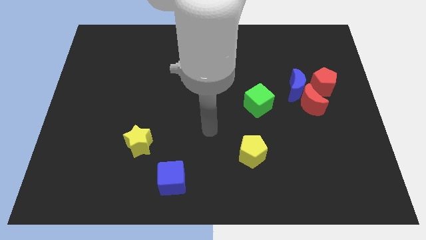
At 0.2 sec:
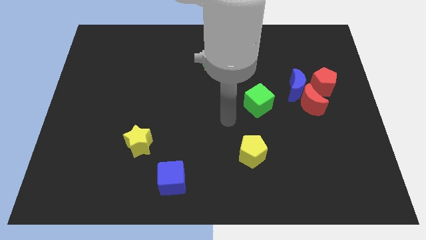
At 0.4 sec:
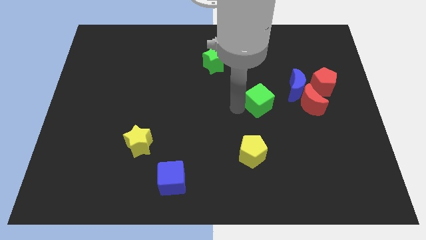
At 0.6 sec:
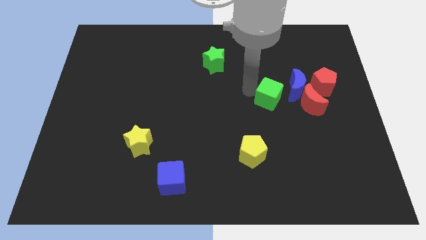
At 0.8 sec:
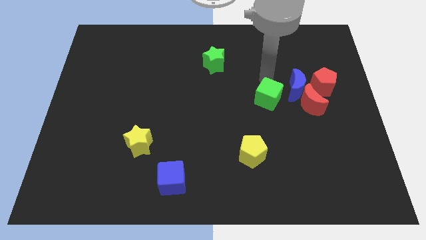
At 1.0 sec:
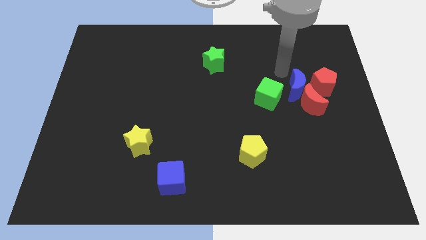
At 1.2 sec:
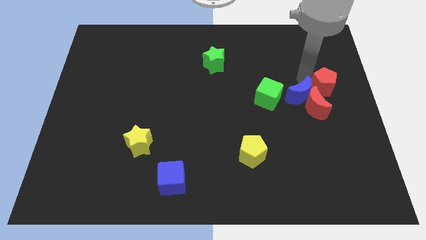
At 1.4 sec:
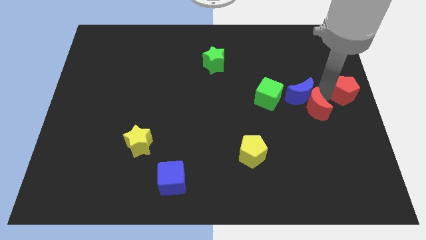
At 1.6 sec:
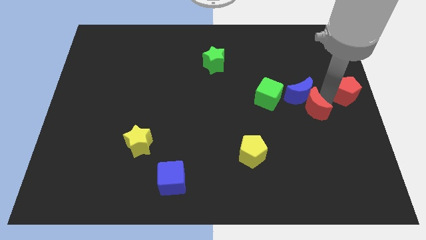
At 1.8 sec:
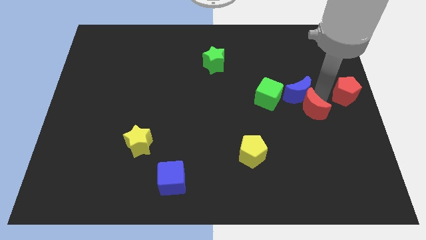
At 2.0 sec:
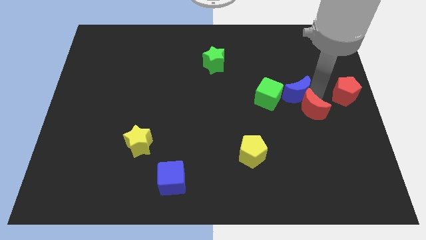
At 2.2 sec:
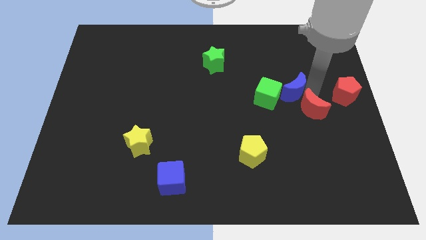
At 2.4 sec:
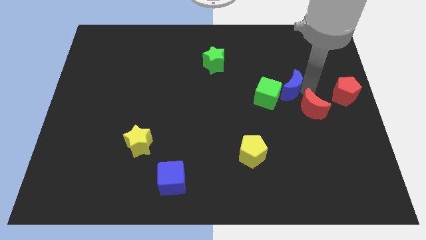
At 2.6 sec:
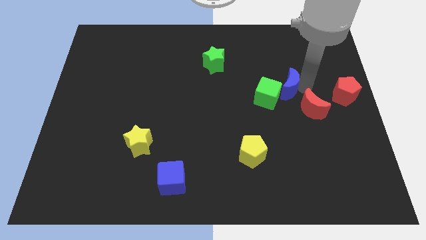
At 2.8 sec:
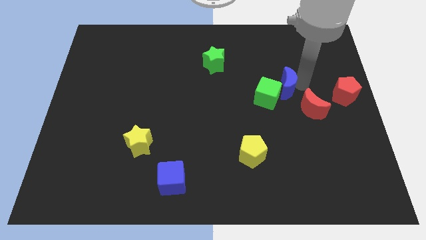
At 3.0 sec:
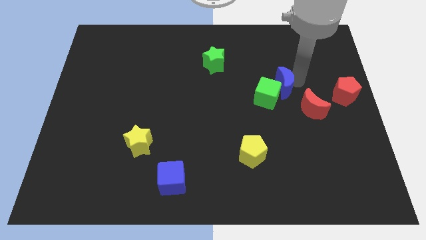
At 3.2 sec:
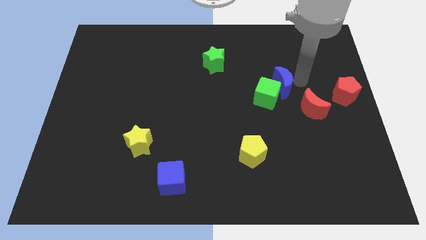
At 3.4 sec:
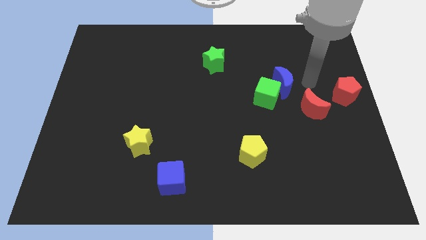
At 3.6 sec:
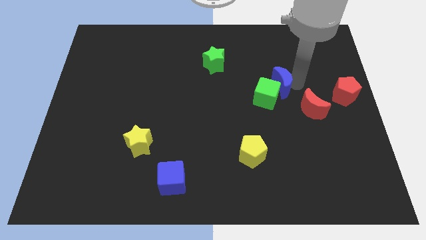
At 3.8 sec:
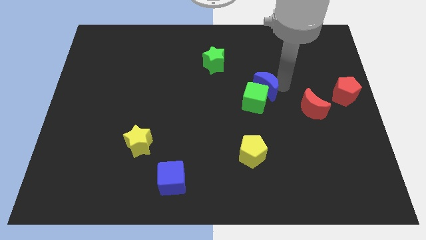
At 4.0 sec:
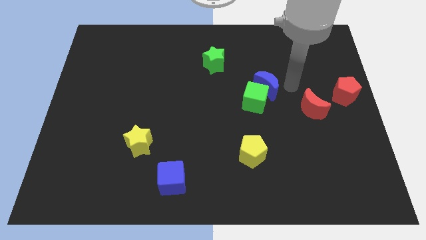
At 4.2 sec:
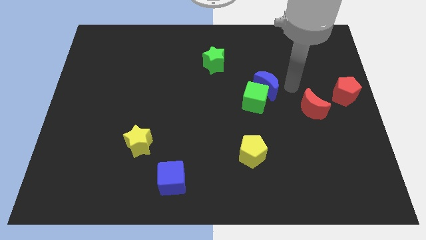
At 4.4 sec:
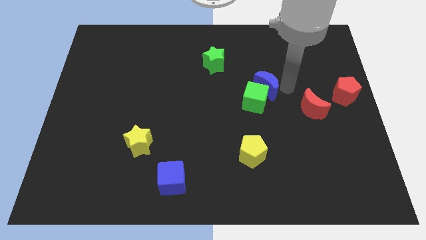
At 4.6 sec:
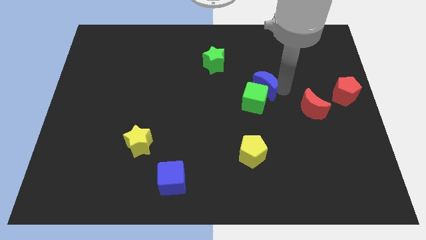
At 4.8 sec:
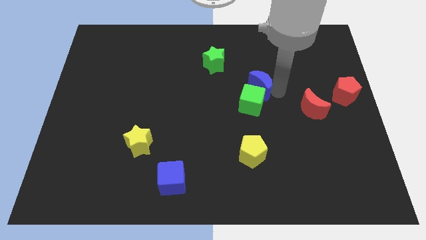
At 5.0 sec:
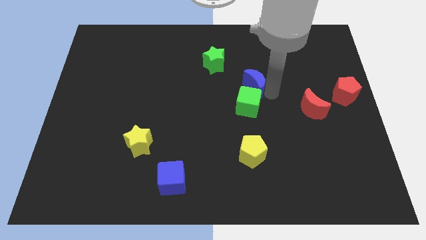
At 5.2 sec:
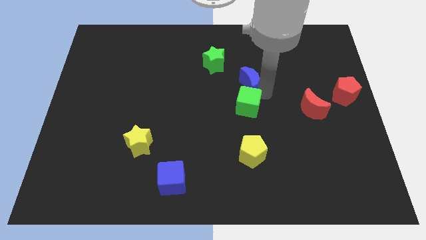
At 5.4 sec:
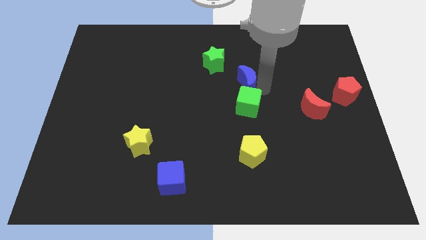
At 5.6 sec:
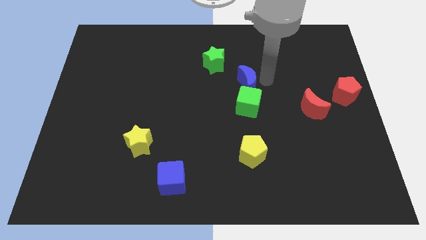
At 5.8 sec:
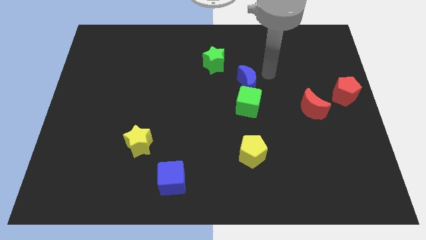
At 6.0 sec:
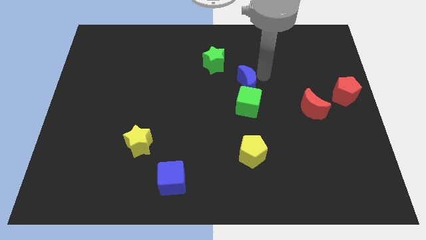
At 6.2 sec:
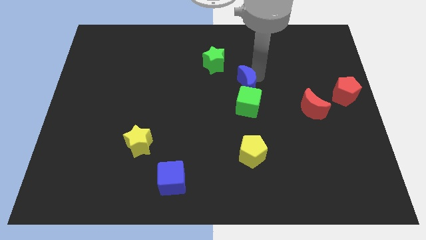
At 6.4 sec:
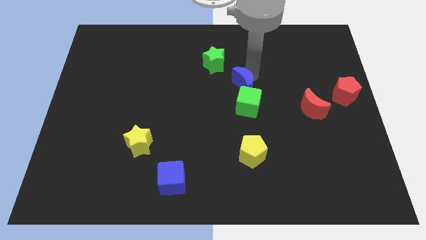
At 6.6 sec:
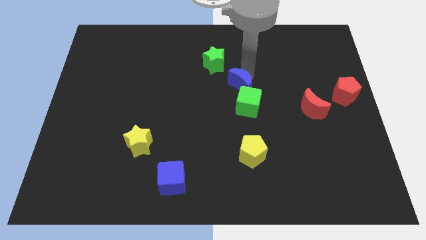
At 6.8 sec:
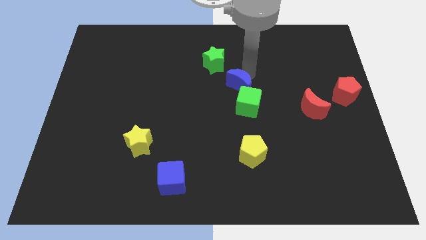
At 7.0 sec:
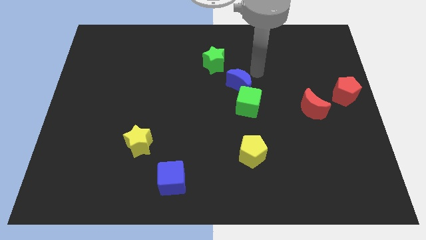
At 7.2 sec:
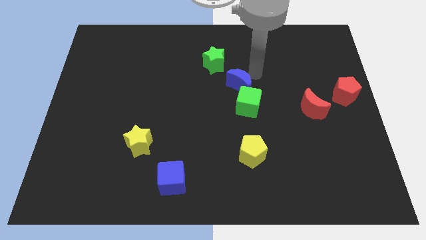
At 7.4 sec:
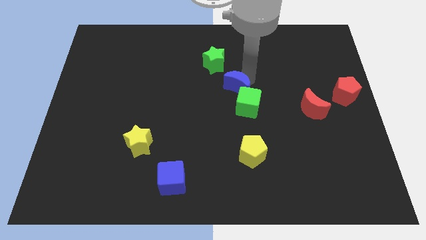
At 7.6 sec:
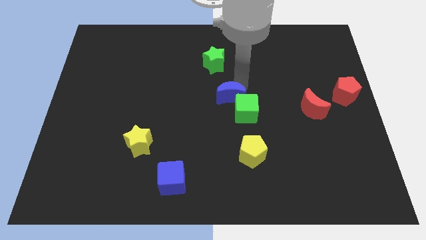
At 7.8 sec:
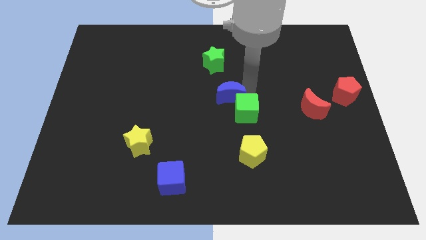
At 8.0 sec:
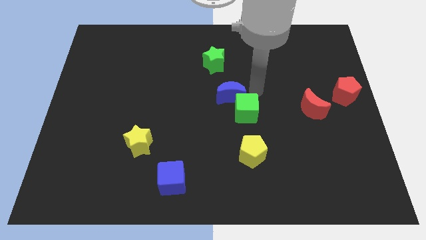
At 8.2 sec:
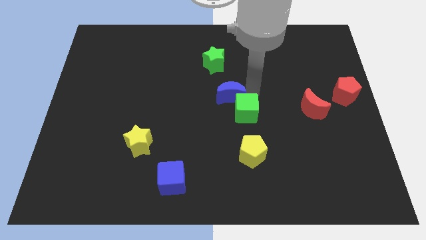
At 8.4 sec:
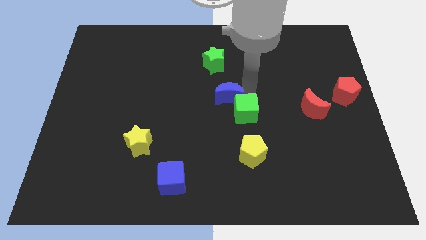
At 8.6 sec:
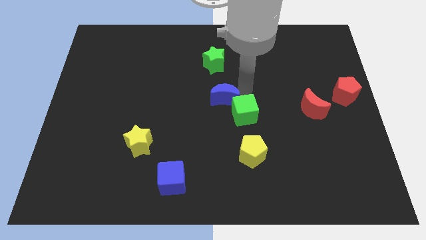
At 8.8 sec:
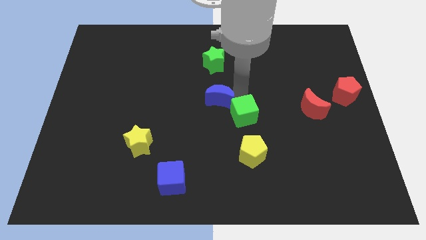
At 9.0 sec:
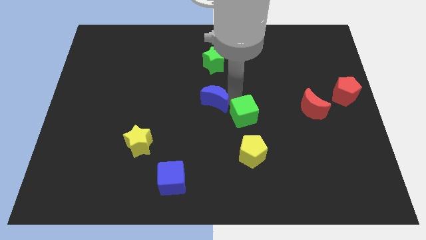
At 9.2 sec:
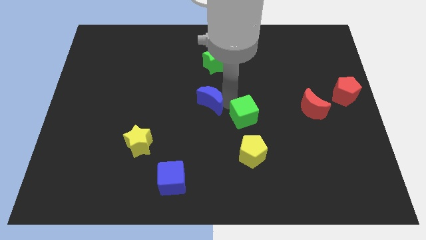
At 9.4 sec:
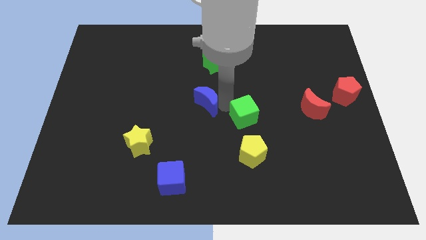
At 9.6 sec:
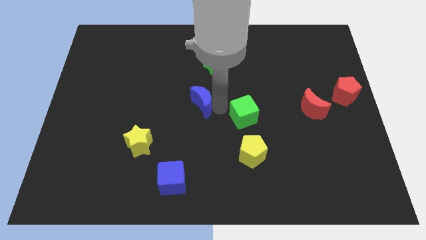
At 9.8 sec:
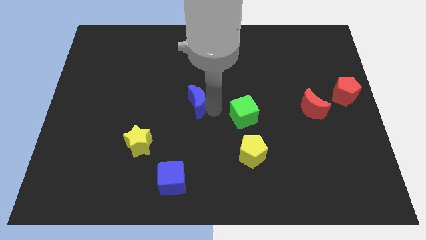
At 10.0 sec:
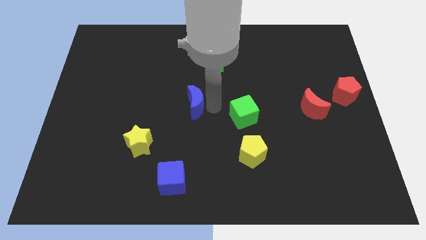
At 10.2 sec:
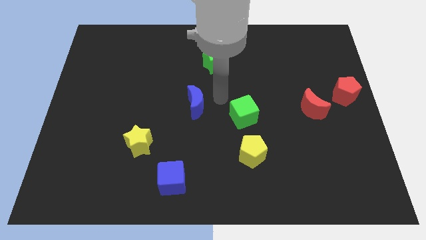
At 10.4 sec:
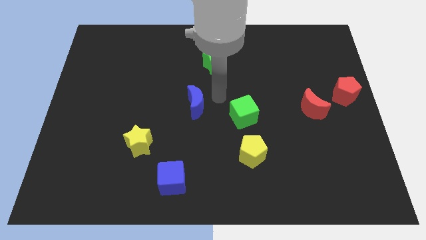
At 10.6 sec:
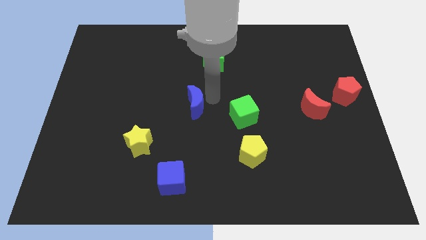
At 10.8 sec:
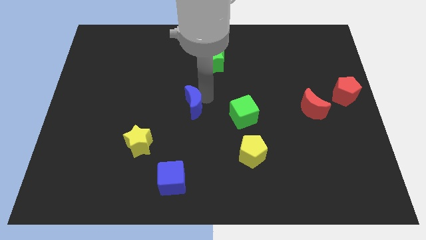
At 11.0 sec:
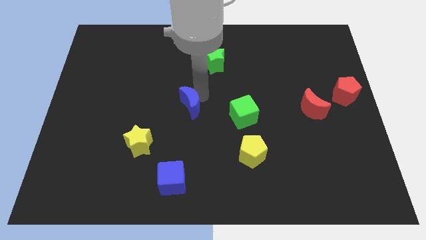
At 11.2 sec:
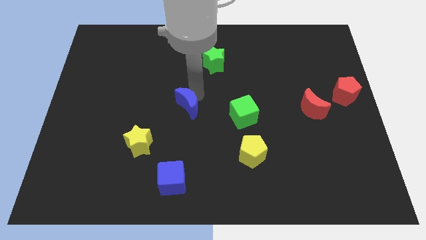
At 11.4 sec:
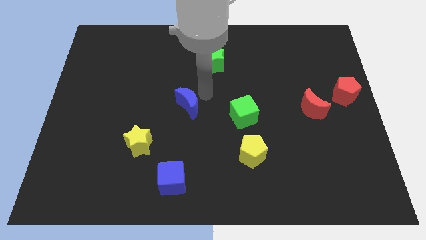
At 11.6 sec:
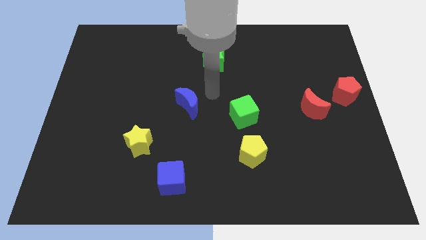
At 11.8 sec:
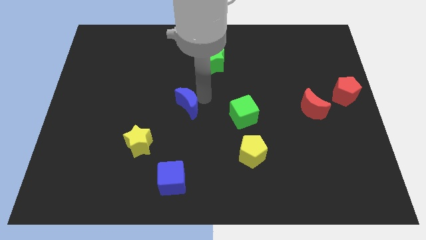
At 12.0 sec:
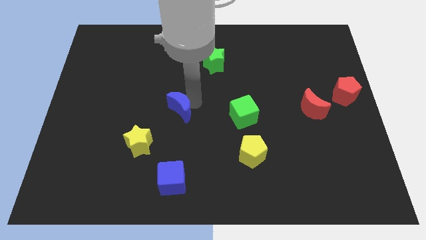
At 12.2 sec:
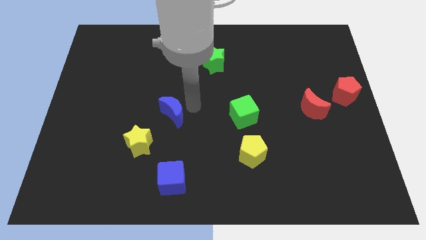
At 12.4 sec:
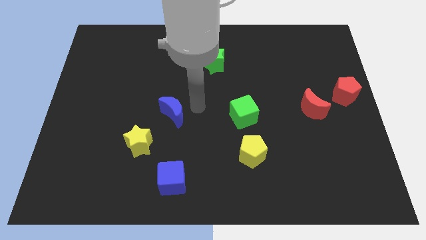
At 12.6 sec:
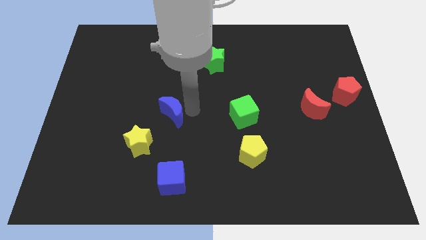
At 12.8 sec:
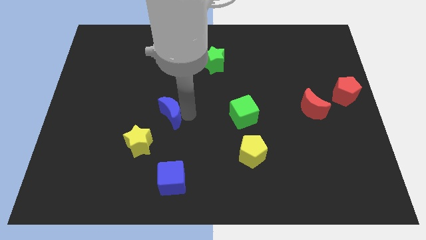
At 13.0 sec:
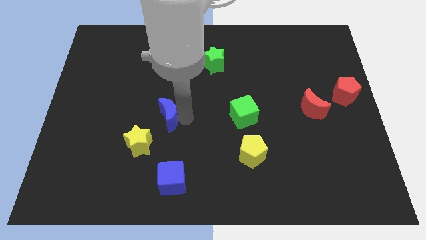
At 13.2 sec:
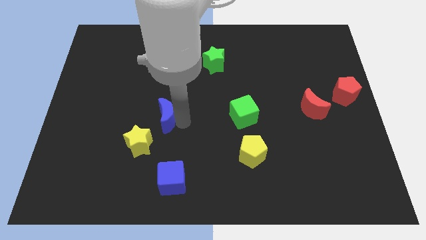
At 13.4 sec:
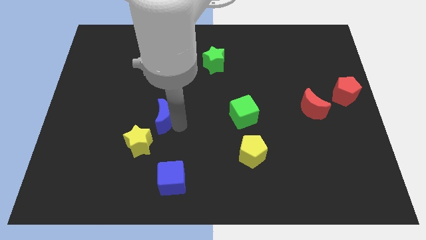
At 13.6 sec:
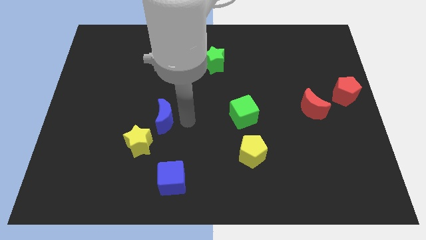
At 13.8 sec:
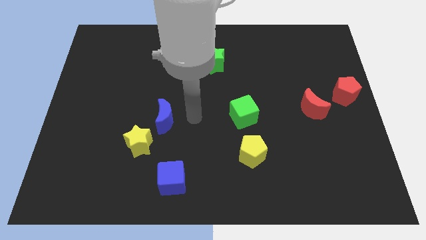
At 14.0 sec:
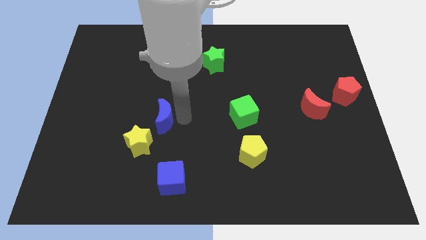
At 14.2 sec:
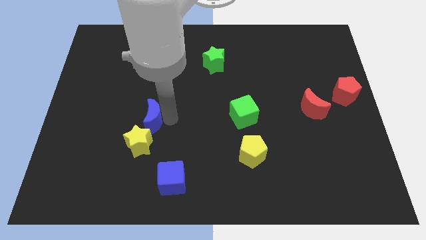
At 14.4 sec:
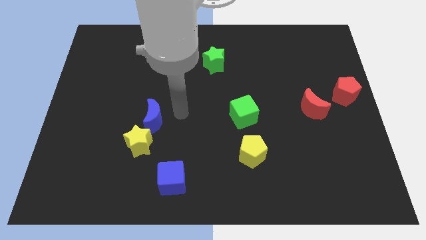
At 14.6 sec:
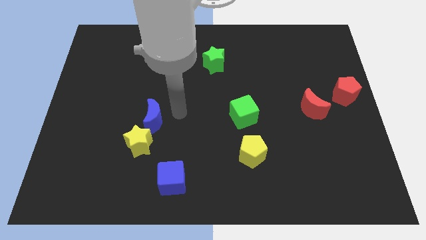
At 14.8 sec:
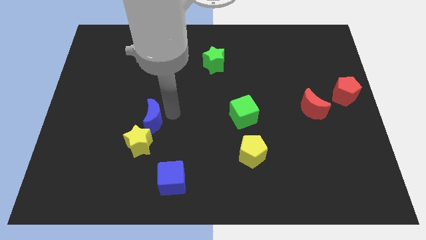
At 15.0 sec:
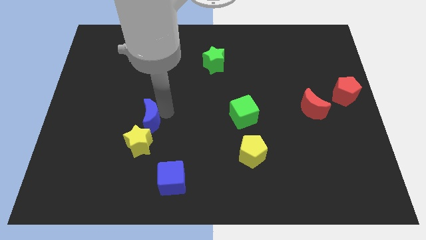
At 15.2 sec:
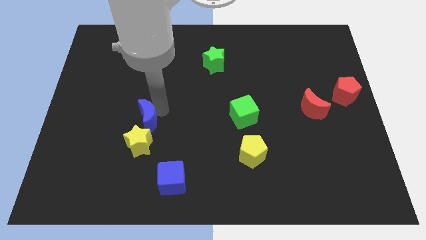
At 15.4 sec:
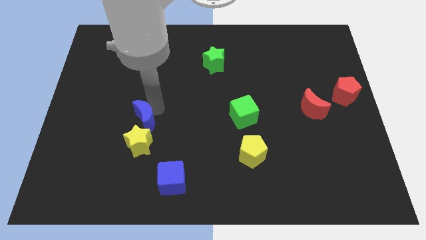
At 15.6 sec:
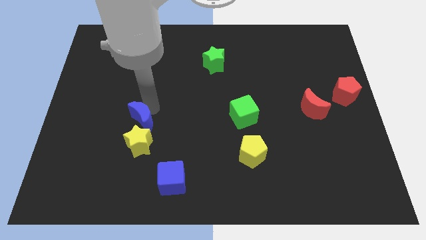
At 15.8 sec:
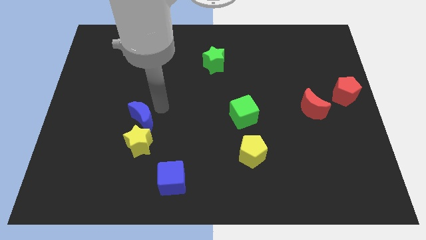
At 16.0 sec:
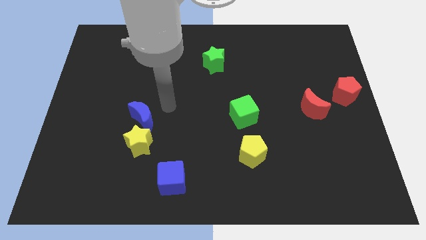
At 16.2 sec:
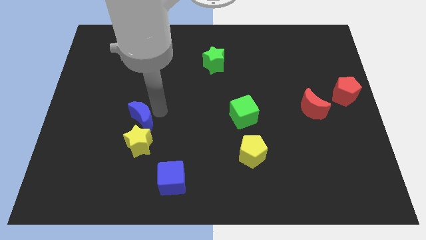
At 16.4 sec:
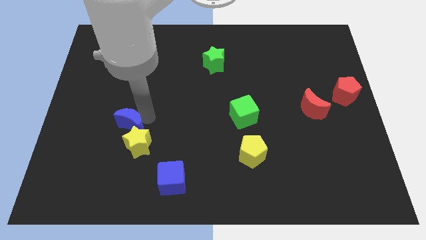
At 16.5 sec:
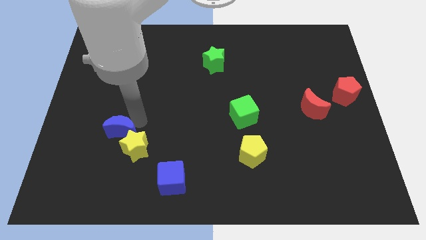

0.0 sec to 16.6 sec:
put the blue moon to the left side of the yellow star
